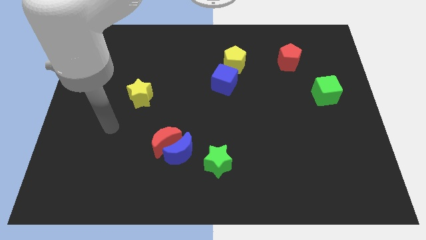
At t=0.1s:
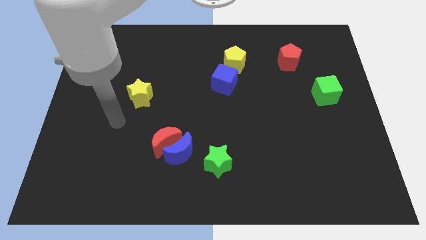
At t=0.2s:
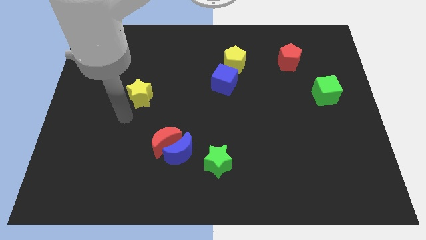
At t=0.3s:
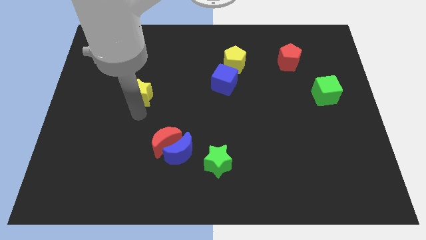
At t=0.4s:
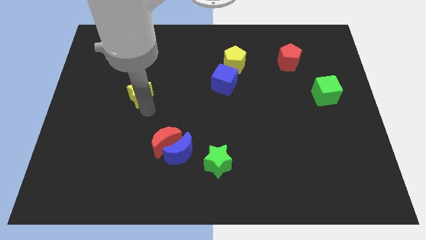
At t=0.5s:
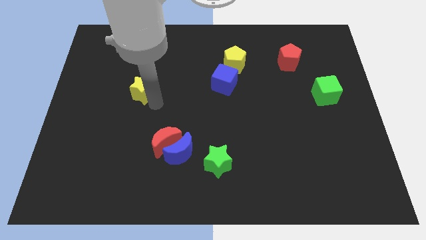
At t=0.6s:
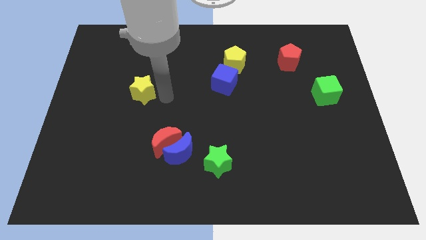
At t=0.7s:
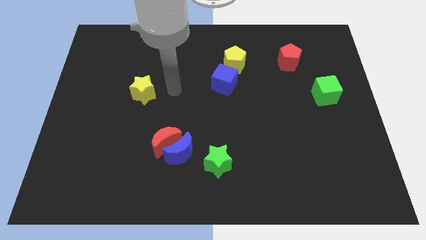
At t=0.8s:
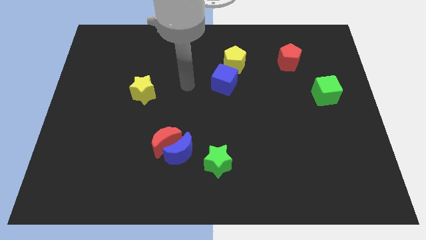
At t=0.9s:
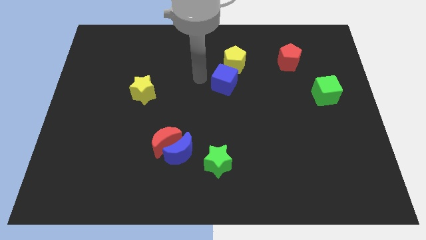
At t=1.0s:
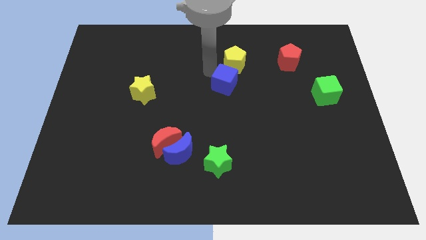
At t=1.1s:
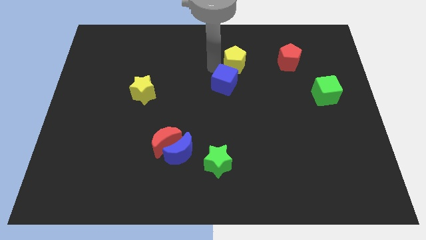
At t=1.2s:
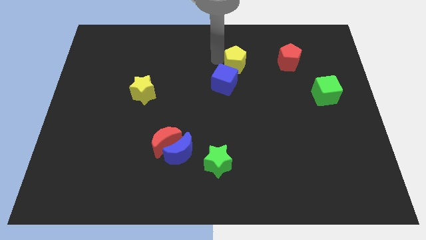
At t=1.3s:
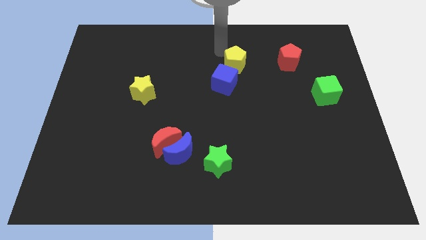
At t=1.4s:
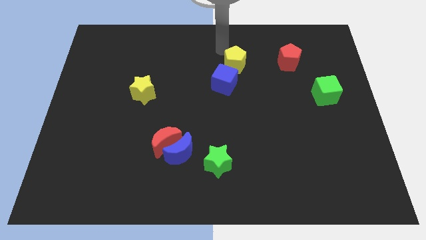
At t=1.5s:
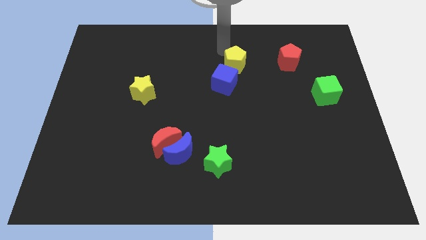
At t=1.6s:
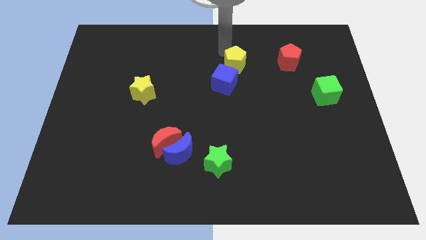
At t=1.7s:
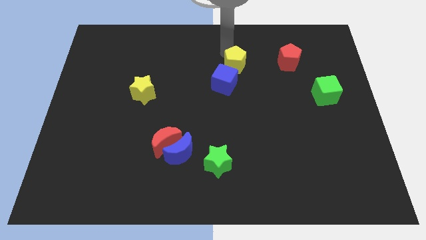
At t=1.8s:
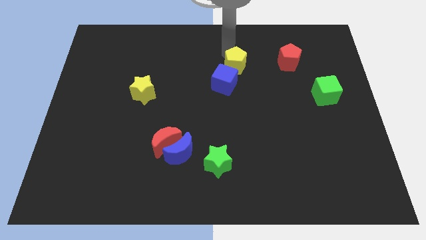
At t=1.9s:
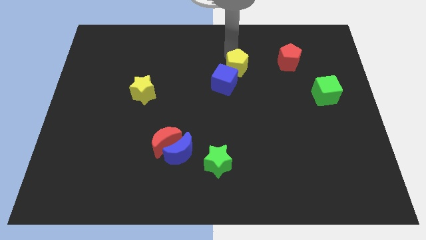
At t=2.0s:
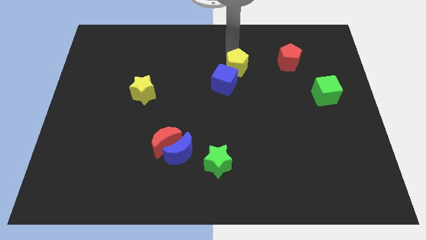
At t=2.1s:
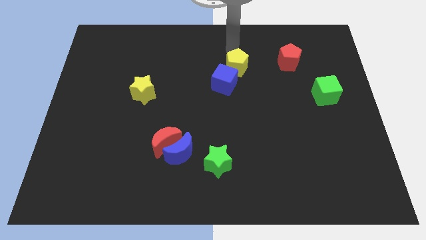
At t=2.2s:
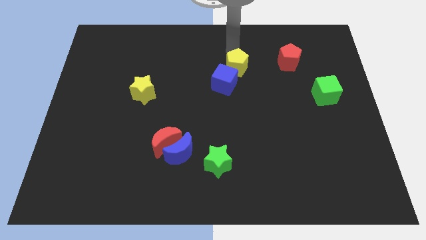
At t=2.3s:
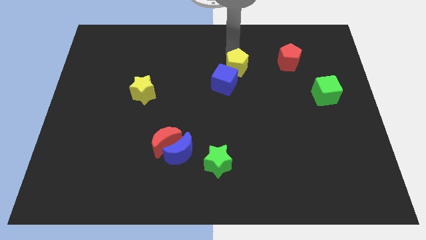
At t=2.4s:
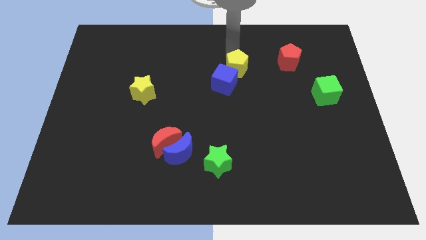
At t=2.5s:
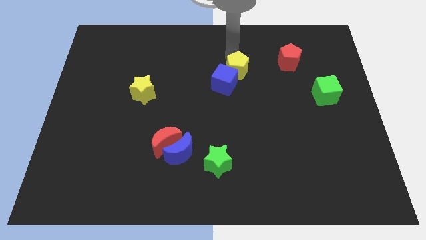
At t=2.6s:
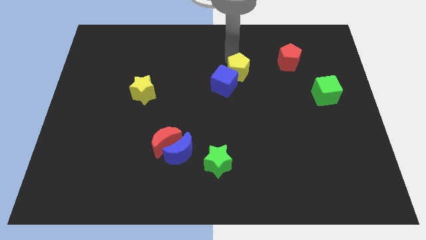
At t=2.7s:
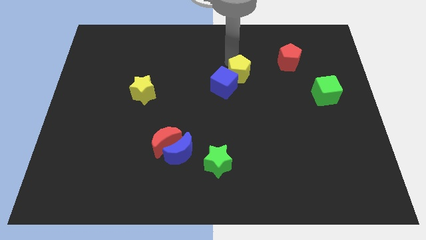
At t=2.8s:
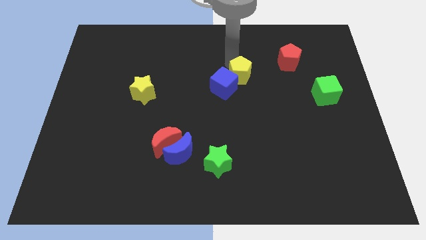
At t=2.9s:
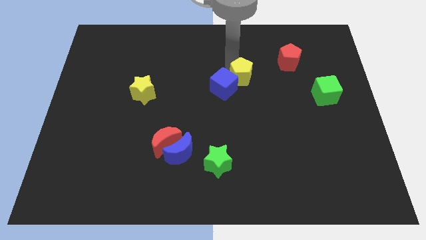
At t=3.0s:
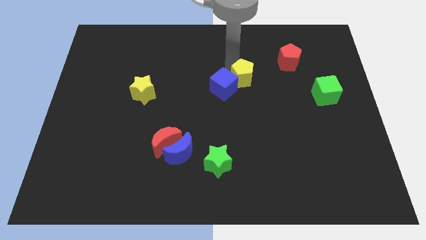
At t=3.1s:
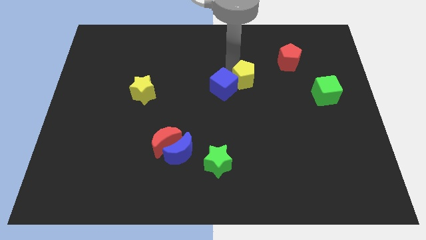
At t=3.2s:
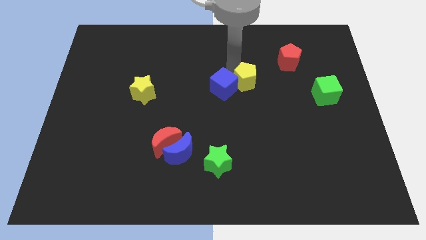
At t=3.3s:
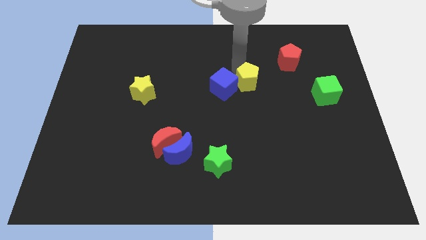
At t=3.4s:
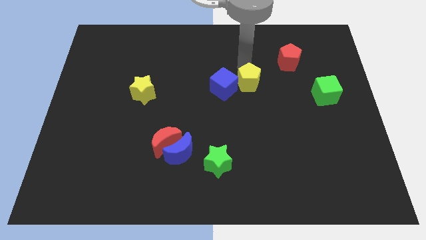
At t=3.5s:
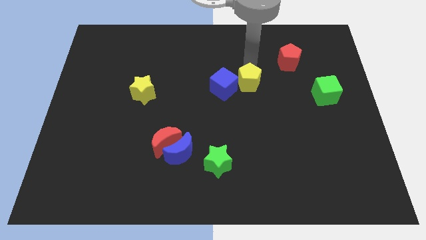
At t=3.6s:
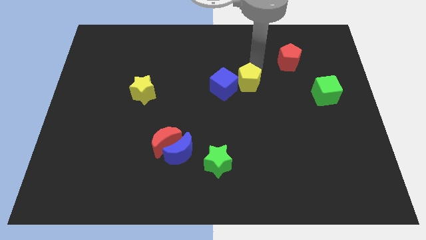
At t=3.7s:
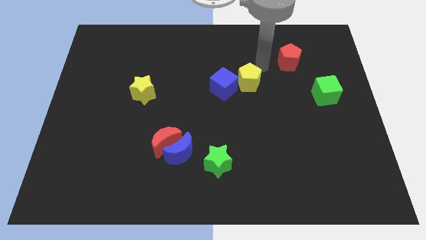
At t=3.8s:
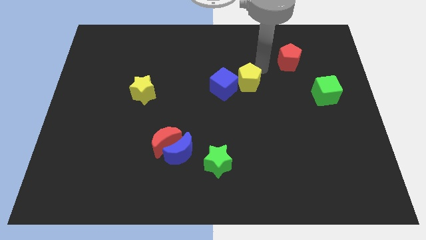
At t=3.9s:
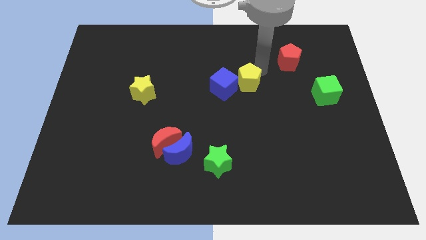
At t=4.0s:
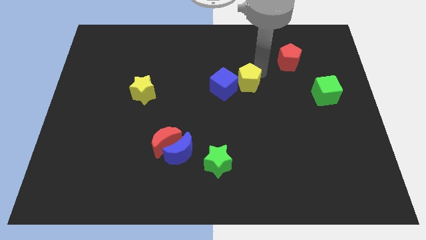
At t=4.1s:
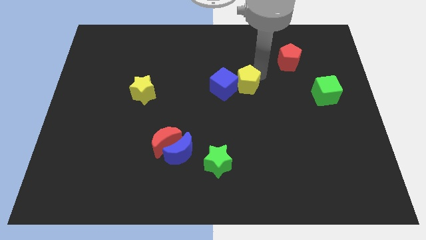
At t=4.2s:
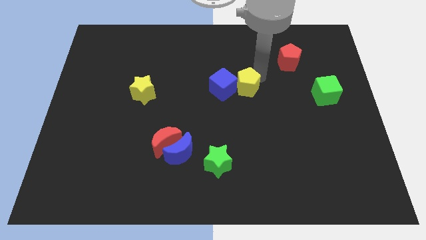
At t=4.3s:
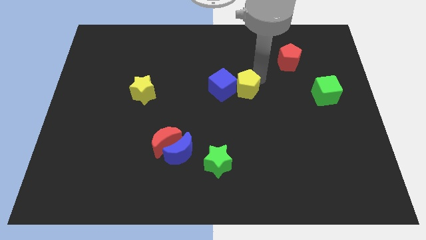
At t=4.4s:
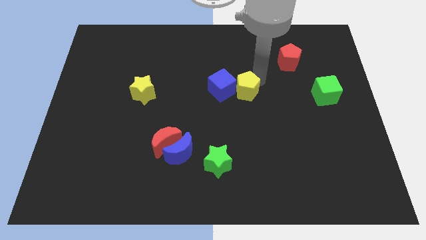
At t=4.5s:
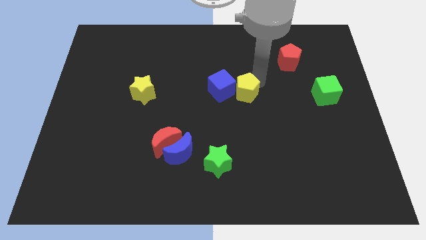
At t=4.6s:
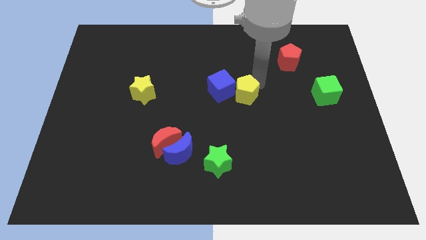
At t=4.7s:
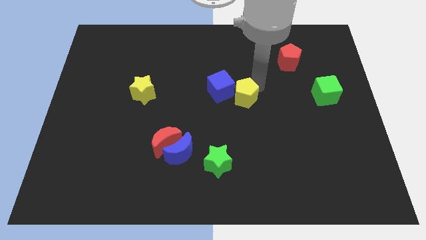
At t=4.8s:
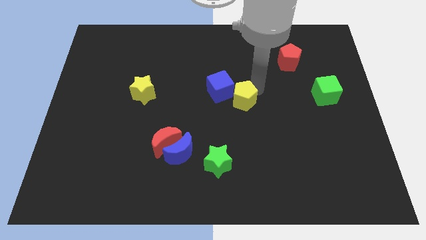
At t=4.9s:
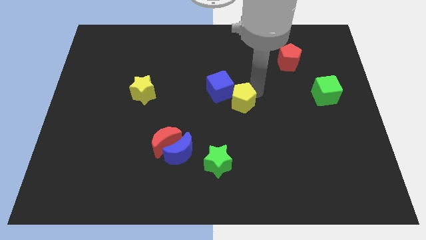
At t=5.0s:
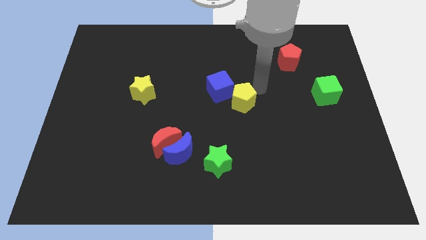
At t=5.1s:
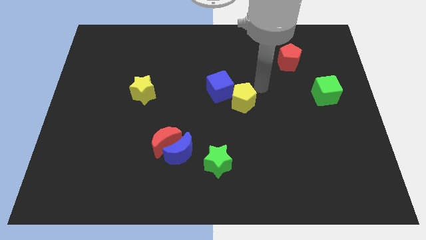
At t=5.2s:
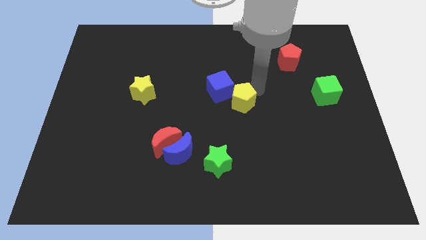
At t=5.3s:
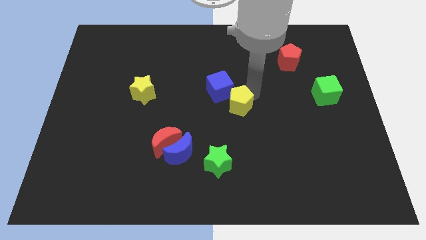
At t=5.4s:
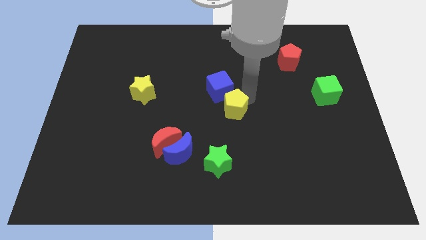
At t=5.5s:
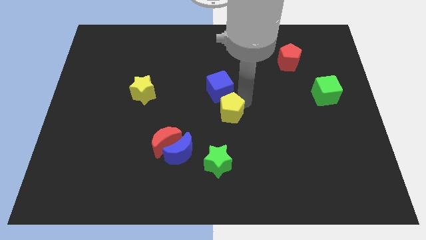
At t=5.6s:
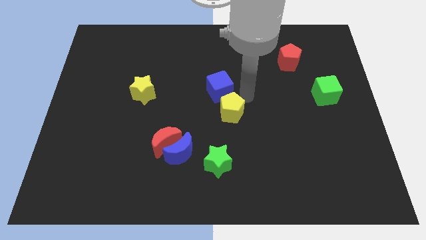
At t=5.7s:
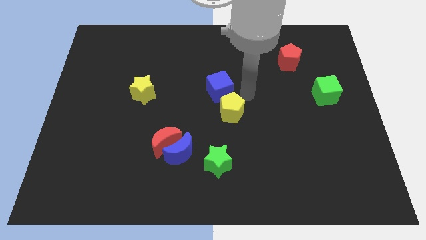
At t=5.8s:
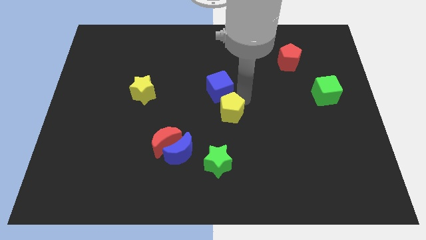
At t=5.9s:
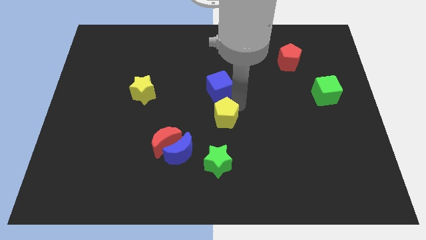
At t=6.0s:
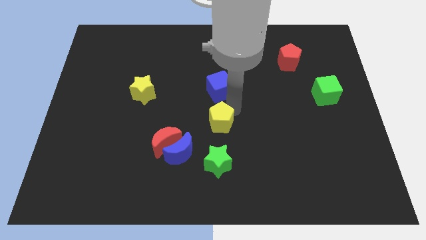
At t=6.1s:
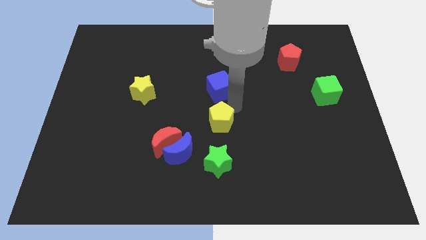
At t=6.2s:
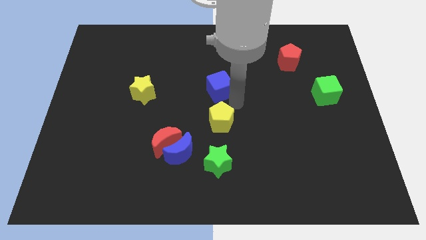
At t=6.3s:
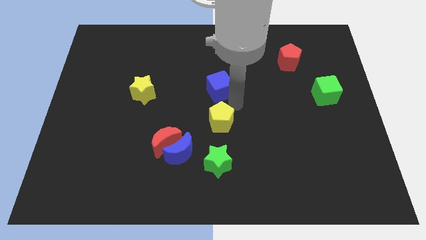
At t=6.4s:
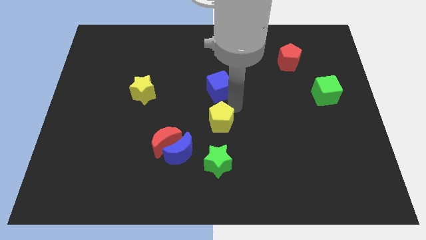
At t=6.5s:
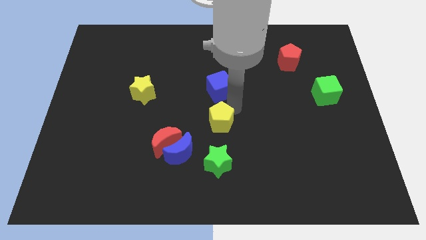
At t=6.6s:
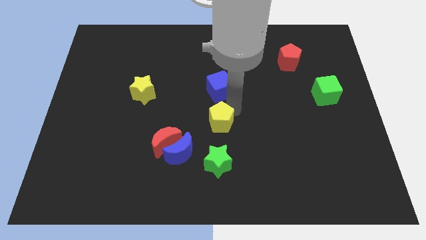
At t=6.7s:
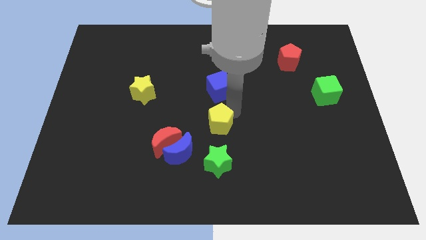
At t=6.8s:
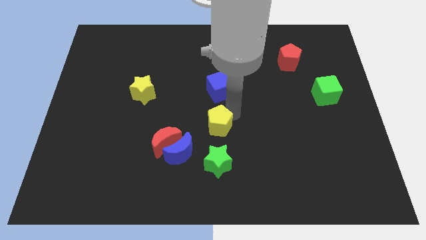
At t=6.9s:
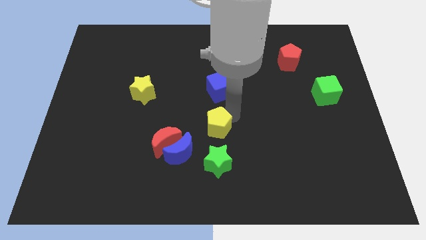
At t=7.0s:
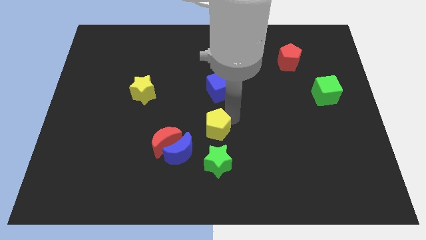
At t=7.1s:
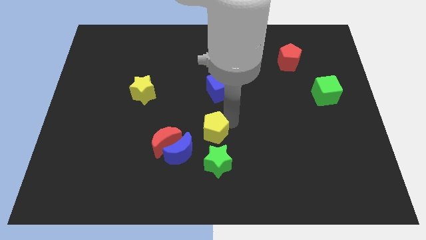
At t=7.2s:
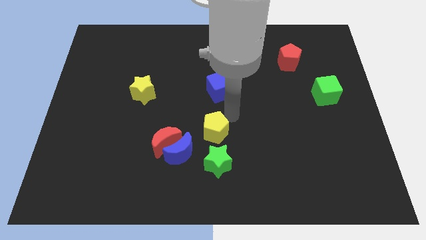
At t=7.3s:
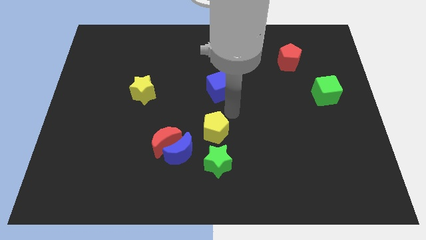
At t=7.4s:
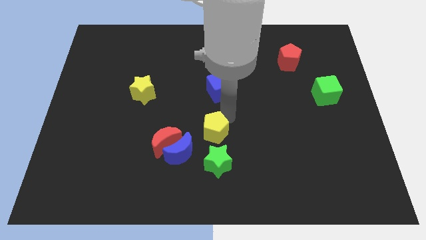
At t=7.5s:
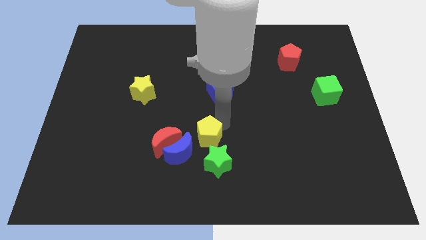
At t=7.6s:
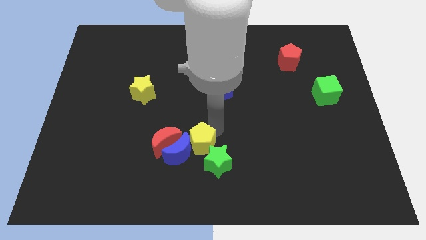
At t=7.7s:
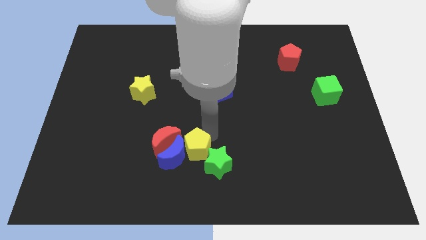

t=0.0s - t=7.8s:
slide the yellow pentagon diagonally down and to the right of the red moon
